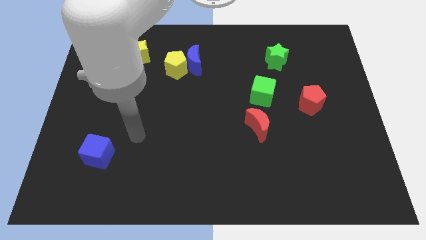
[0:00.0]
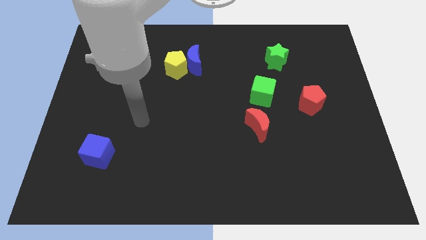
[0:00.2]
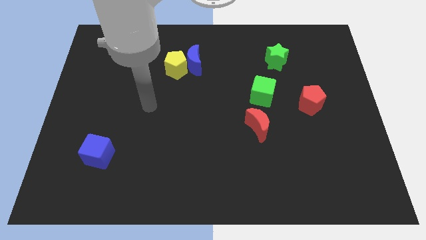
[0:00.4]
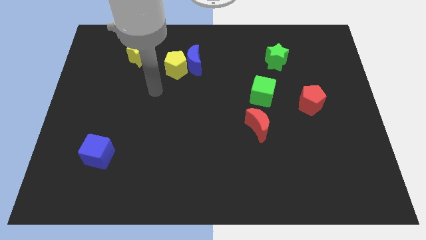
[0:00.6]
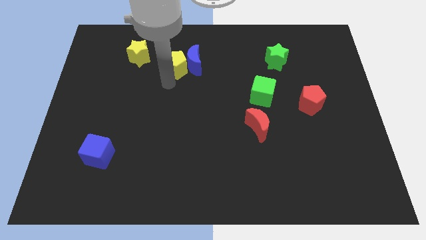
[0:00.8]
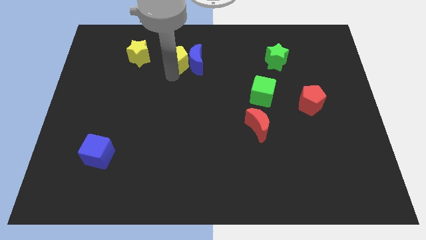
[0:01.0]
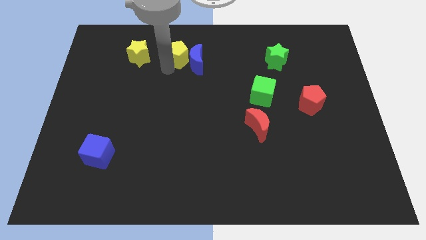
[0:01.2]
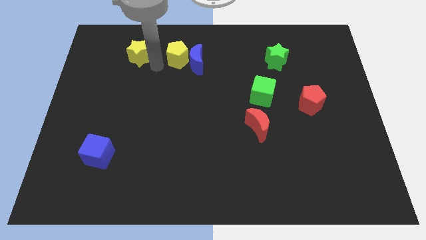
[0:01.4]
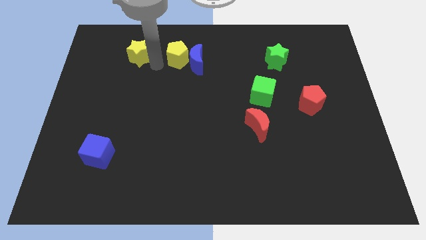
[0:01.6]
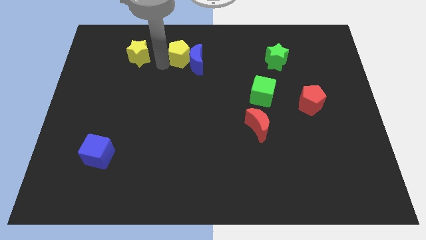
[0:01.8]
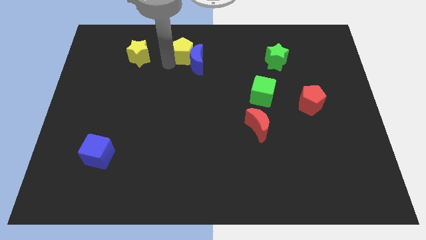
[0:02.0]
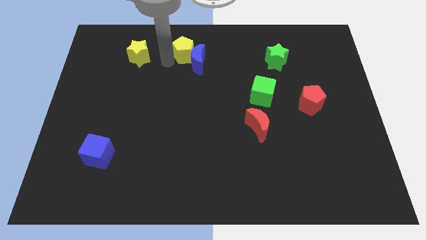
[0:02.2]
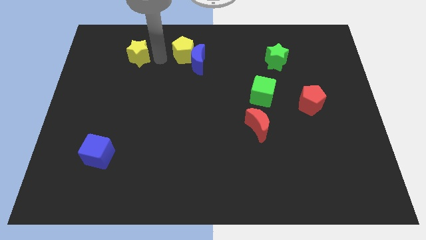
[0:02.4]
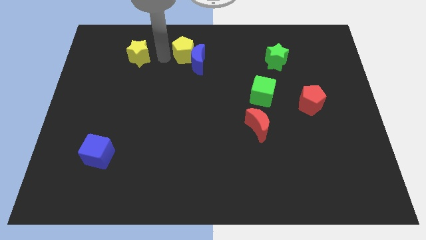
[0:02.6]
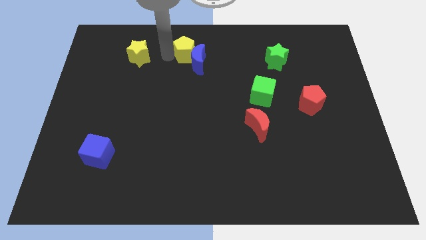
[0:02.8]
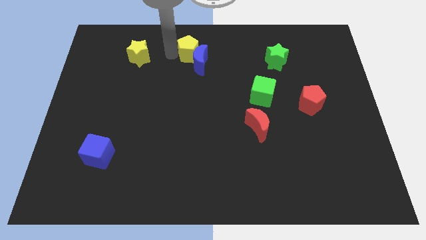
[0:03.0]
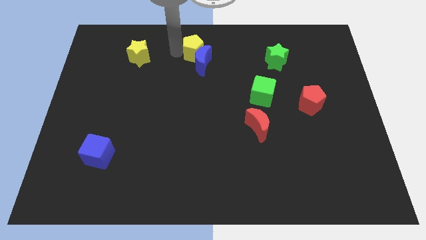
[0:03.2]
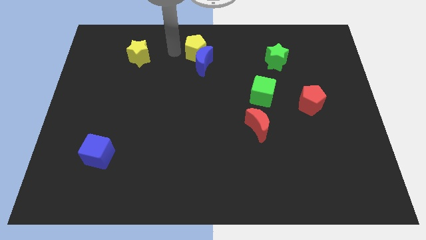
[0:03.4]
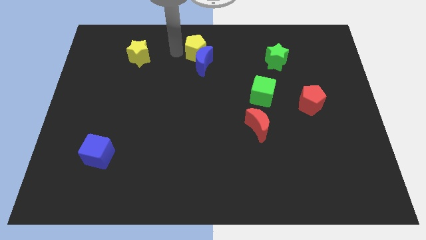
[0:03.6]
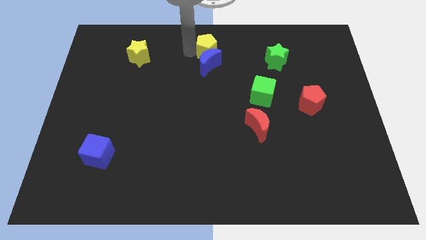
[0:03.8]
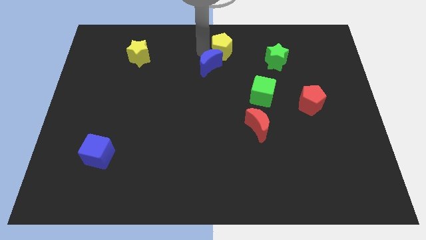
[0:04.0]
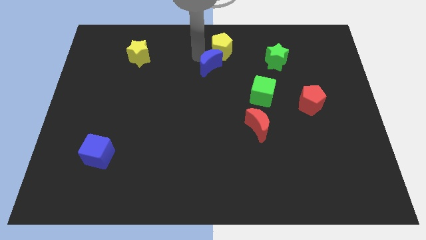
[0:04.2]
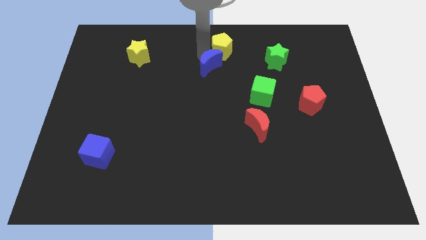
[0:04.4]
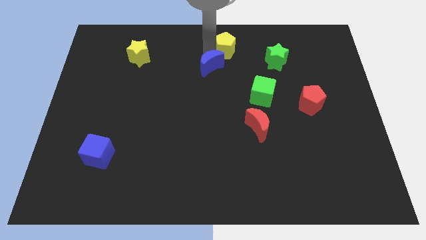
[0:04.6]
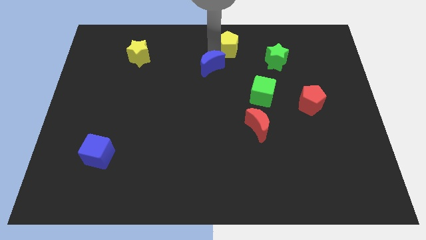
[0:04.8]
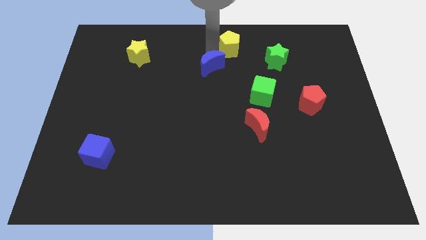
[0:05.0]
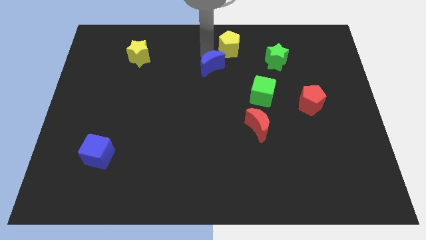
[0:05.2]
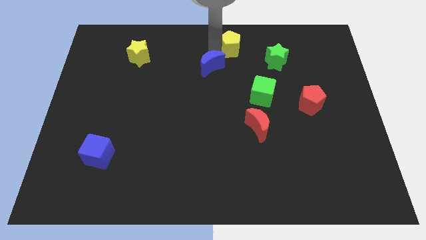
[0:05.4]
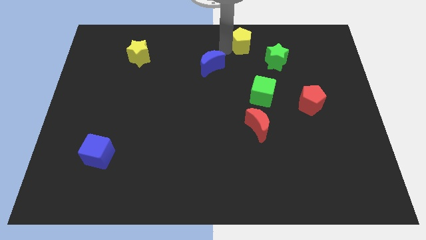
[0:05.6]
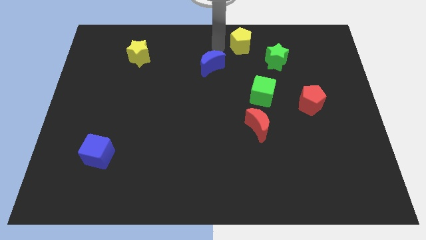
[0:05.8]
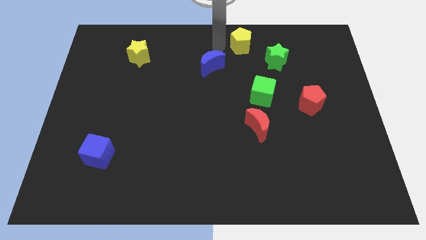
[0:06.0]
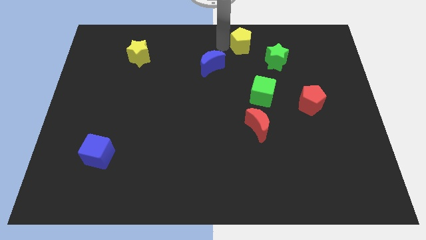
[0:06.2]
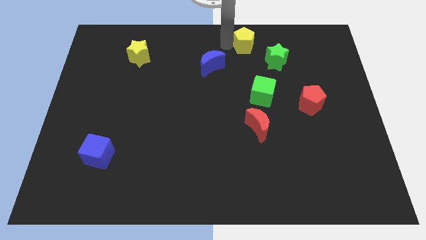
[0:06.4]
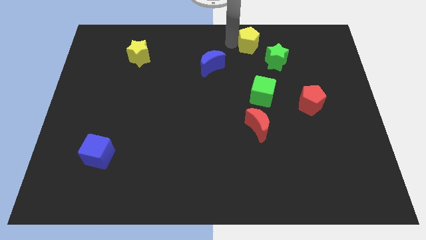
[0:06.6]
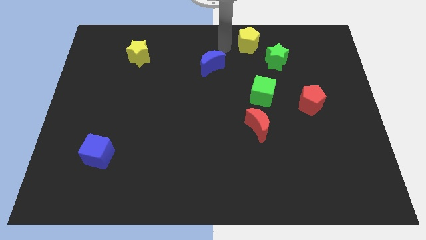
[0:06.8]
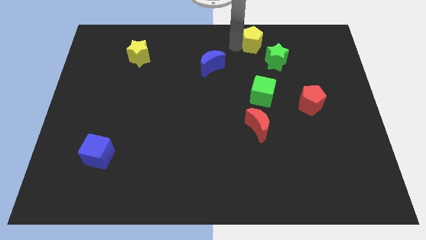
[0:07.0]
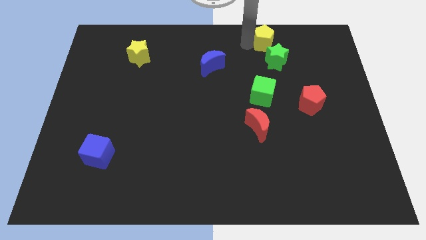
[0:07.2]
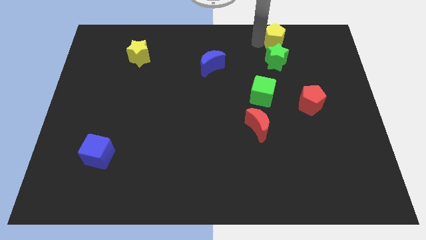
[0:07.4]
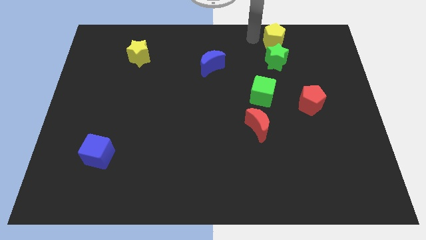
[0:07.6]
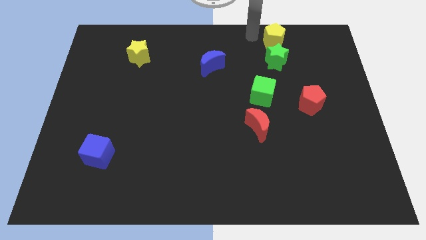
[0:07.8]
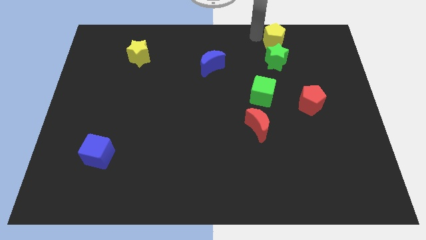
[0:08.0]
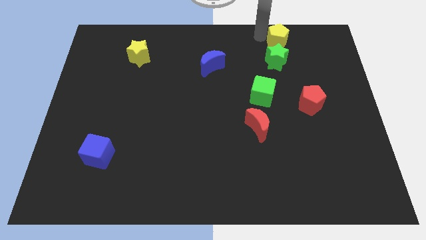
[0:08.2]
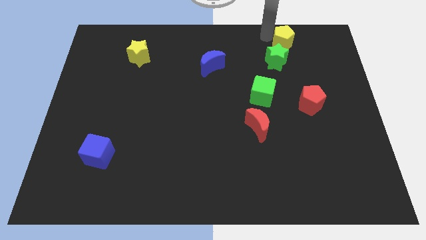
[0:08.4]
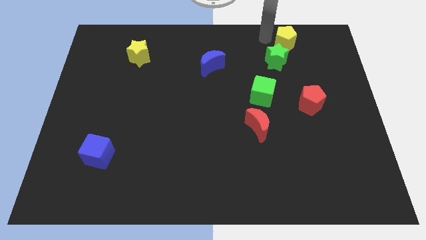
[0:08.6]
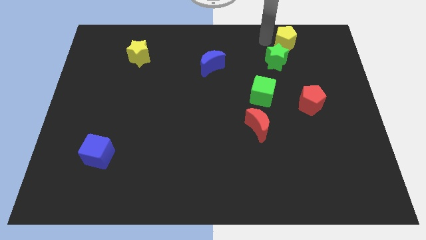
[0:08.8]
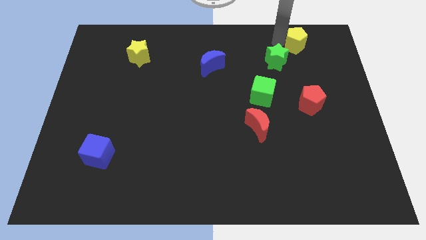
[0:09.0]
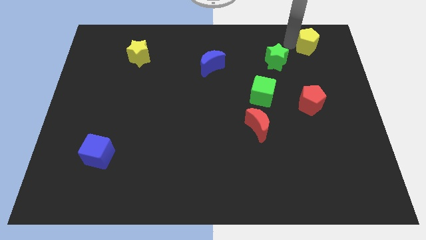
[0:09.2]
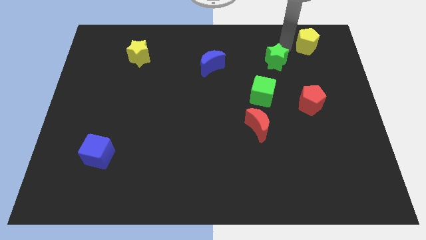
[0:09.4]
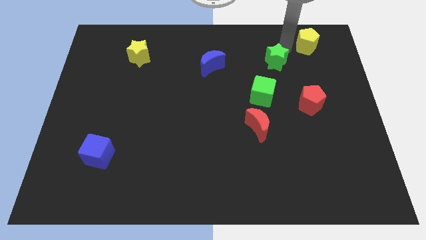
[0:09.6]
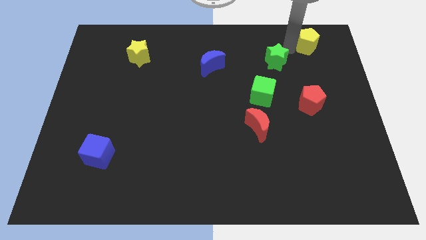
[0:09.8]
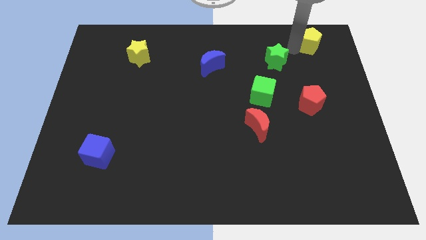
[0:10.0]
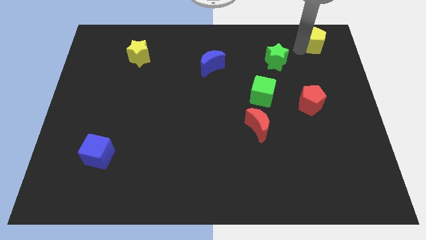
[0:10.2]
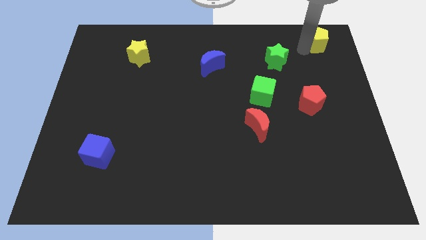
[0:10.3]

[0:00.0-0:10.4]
slide the yellow pentagon to the upper right corner

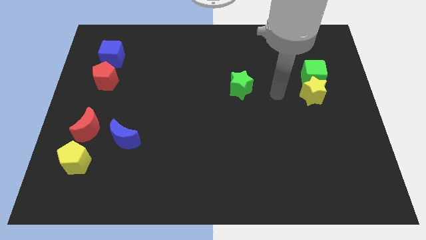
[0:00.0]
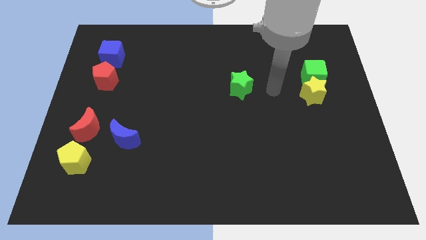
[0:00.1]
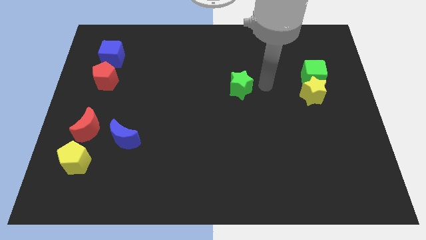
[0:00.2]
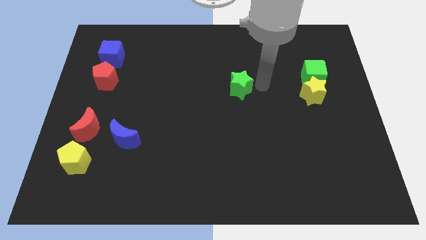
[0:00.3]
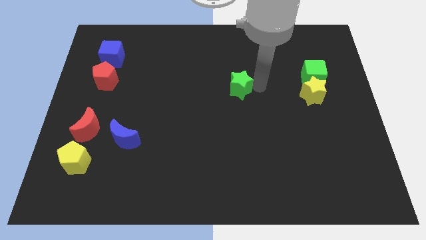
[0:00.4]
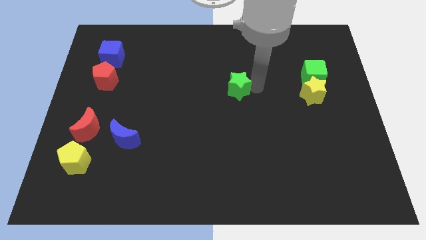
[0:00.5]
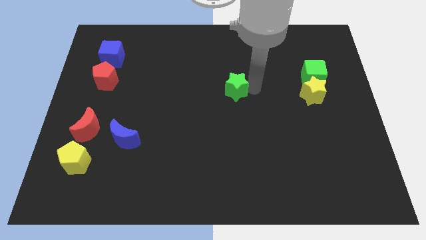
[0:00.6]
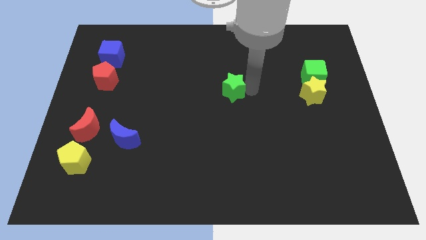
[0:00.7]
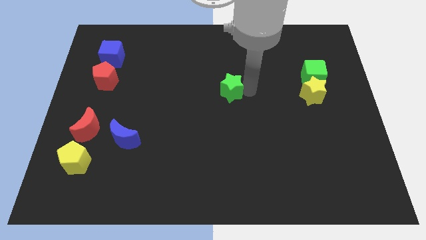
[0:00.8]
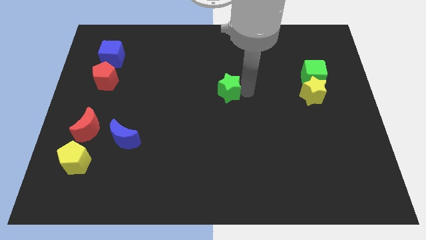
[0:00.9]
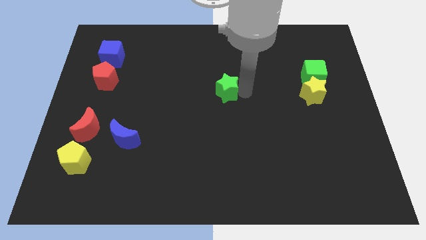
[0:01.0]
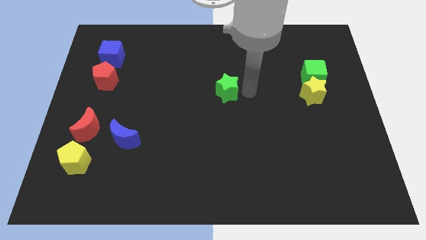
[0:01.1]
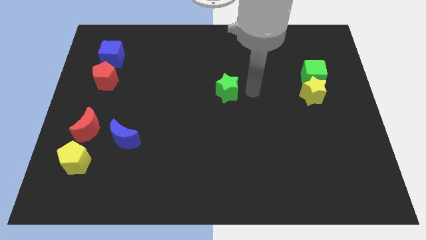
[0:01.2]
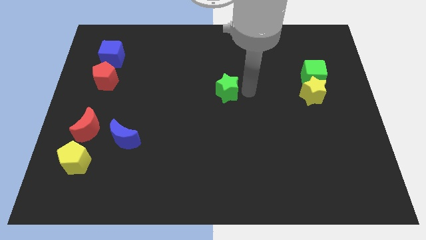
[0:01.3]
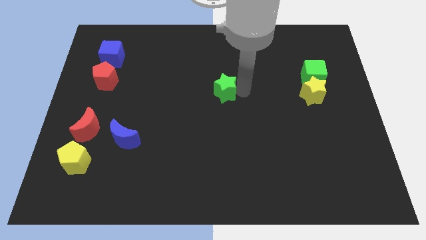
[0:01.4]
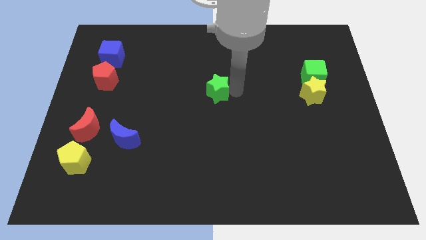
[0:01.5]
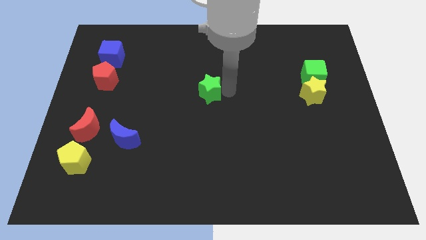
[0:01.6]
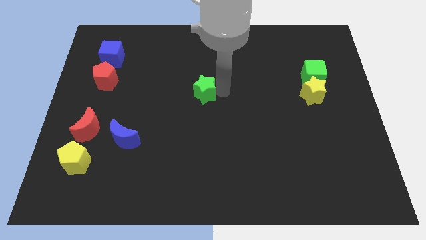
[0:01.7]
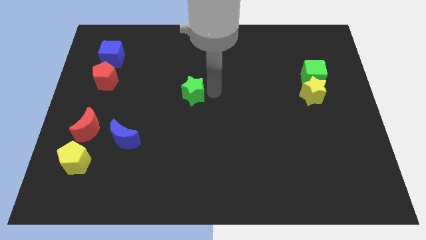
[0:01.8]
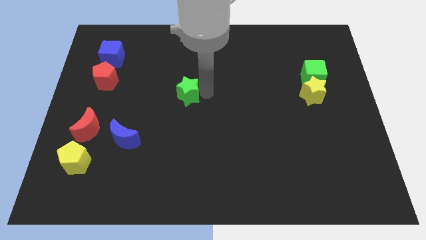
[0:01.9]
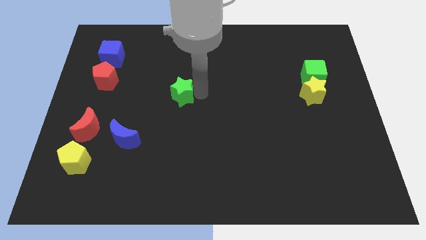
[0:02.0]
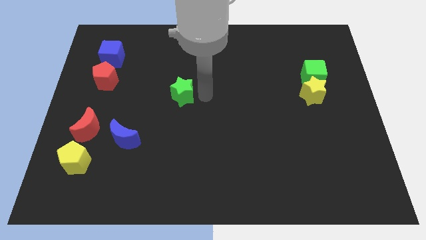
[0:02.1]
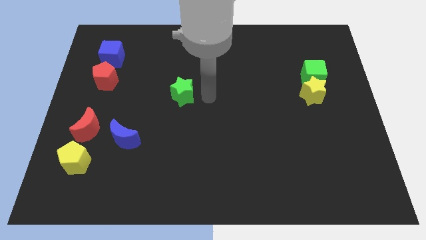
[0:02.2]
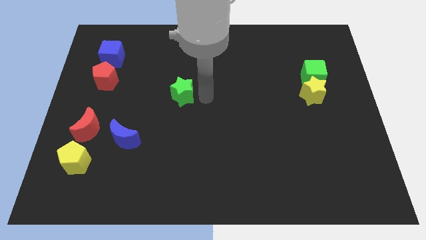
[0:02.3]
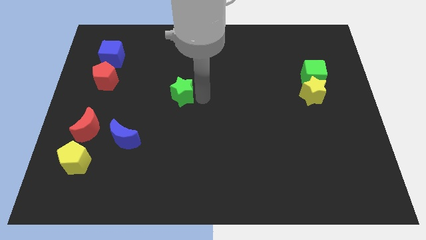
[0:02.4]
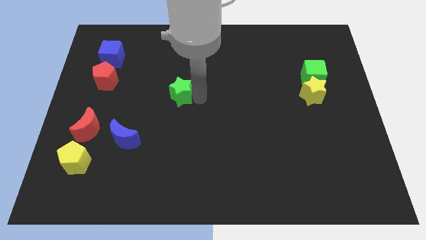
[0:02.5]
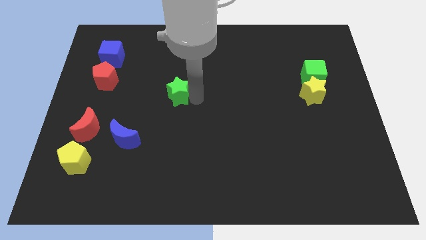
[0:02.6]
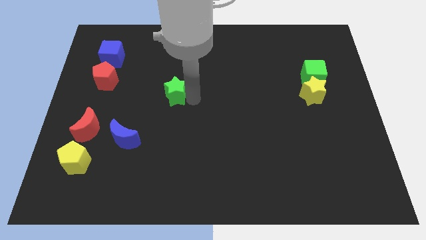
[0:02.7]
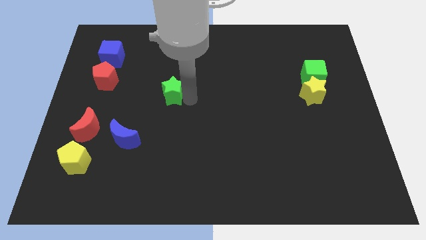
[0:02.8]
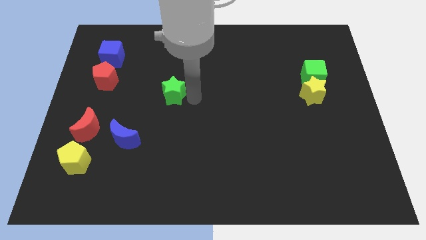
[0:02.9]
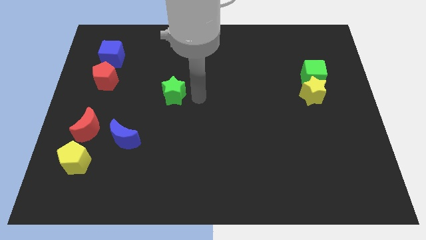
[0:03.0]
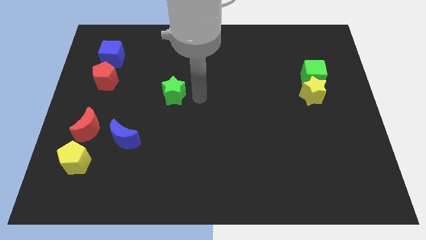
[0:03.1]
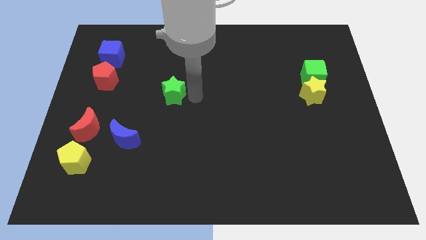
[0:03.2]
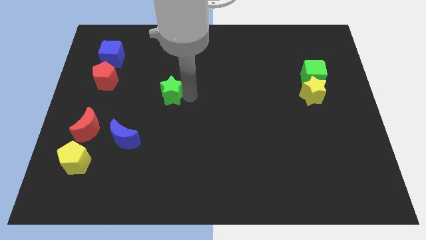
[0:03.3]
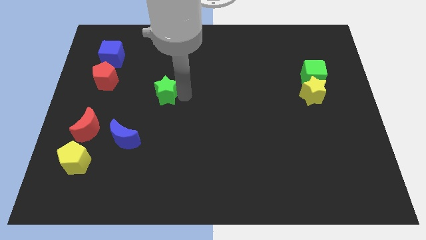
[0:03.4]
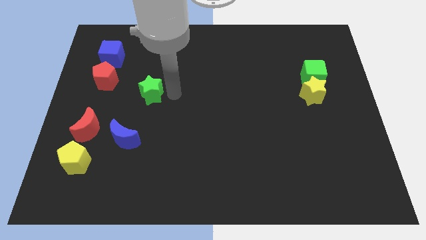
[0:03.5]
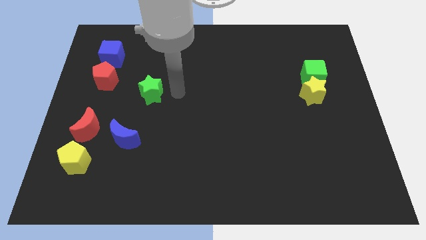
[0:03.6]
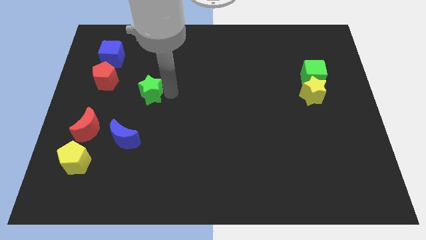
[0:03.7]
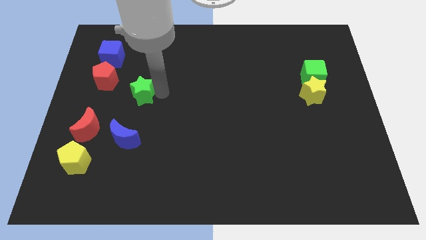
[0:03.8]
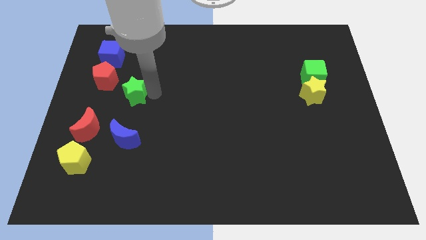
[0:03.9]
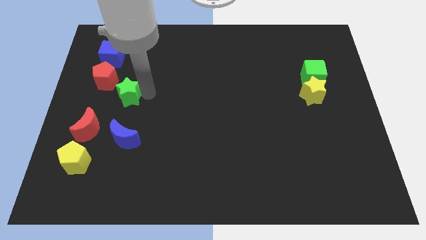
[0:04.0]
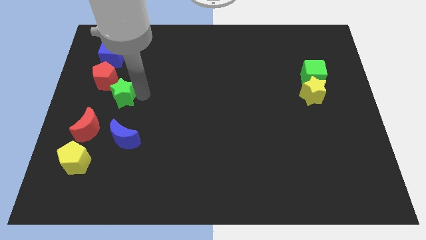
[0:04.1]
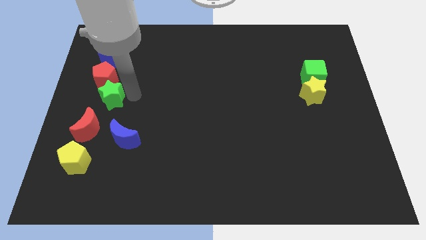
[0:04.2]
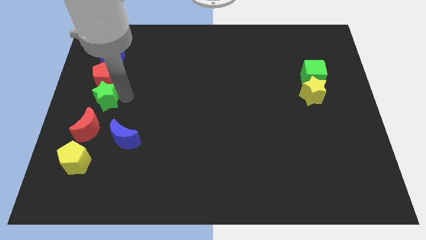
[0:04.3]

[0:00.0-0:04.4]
put the green star to the center left
